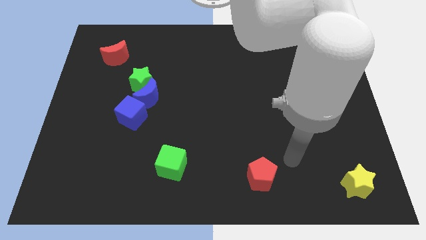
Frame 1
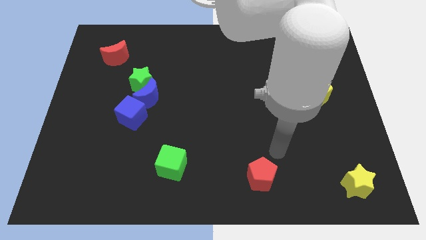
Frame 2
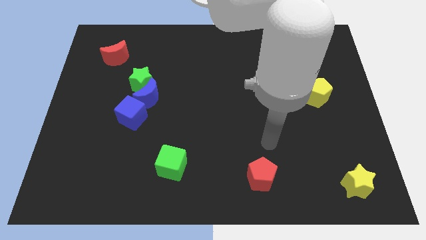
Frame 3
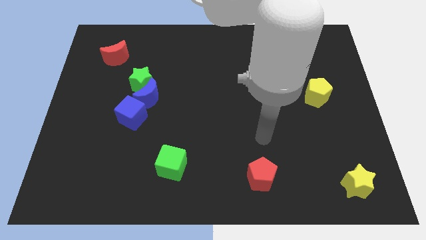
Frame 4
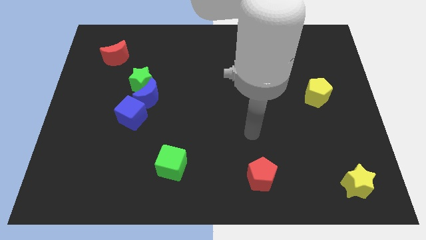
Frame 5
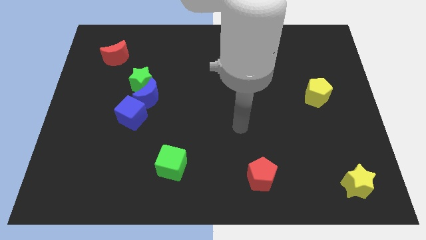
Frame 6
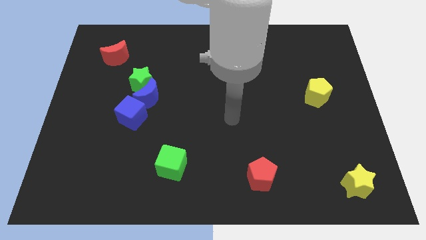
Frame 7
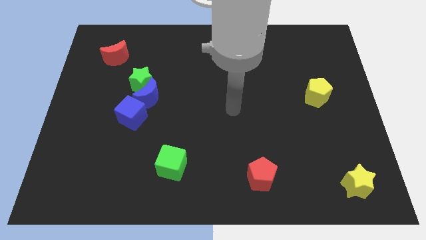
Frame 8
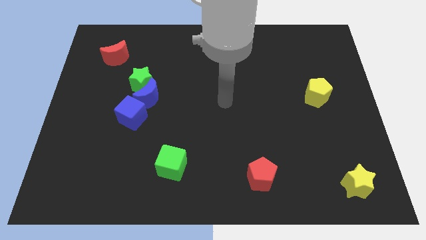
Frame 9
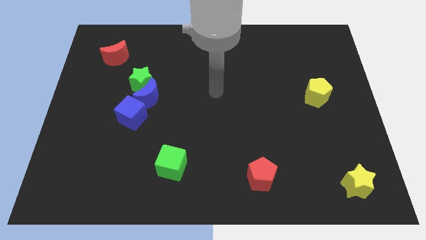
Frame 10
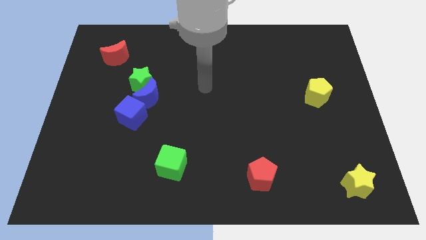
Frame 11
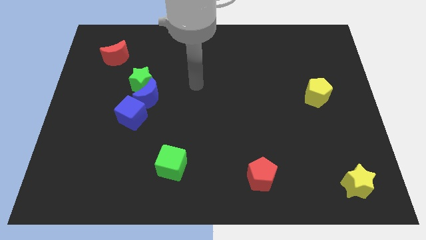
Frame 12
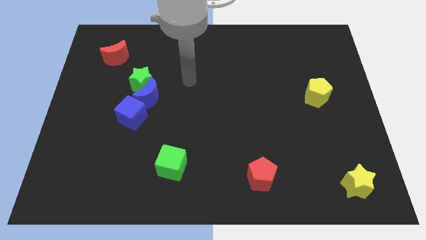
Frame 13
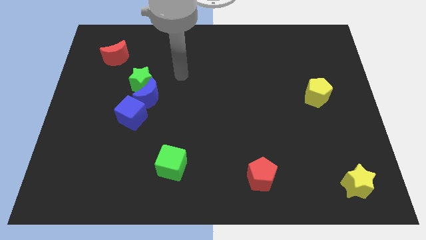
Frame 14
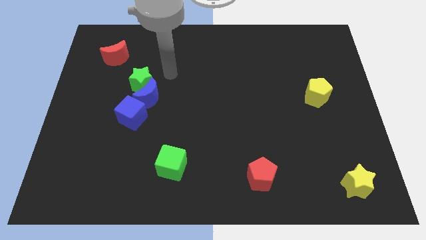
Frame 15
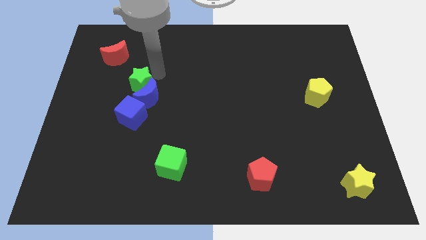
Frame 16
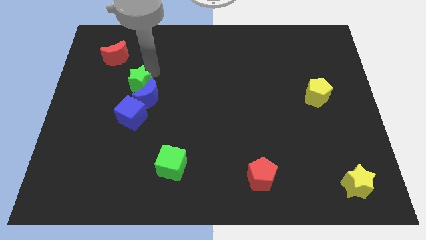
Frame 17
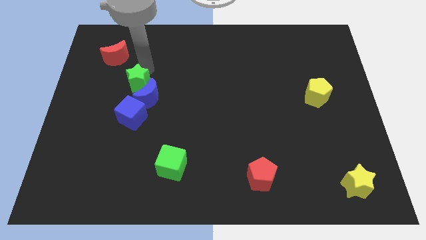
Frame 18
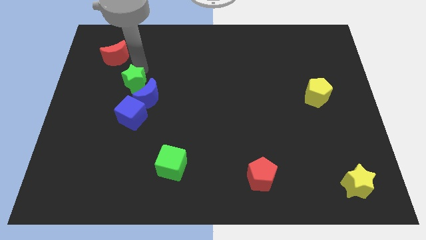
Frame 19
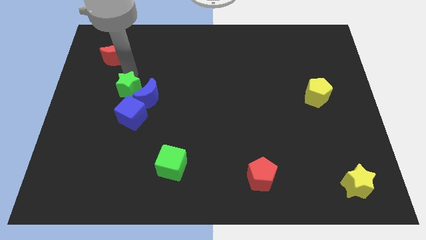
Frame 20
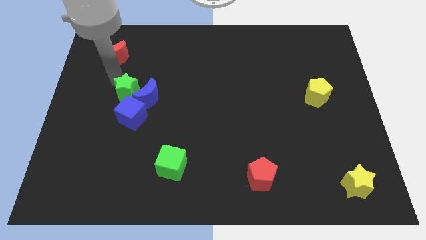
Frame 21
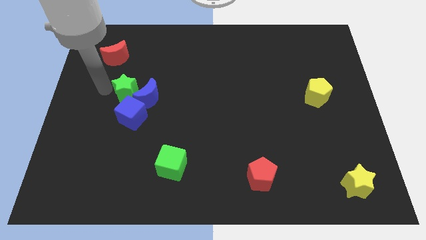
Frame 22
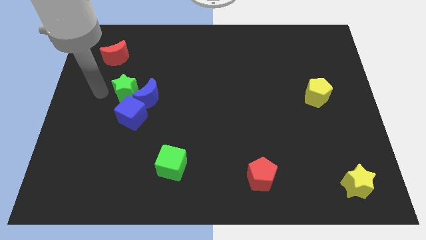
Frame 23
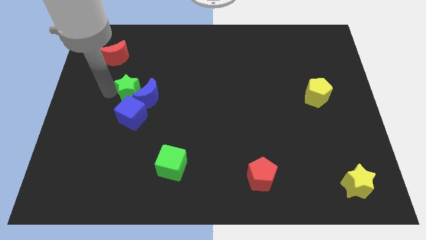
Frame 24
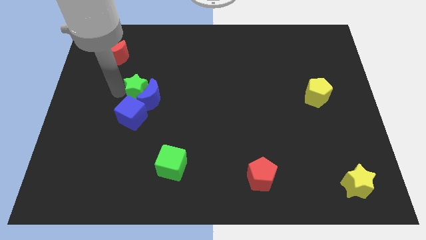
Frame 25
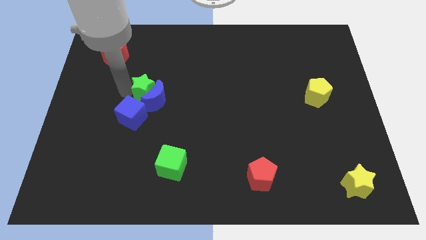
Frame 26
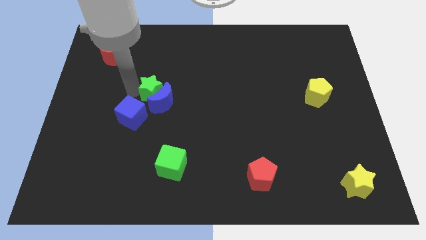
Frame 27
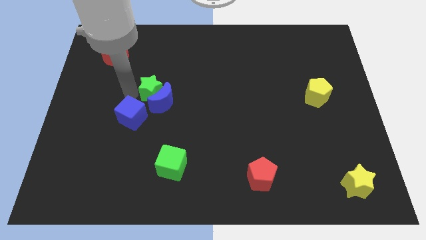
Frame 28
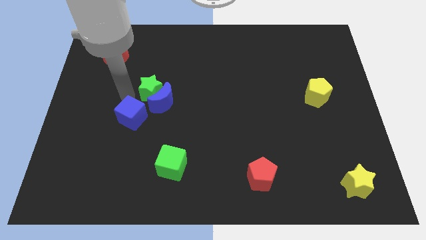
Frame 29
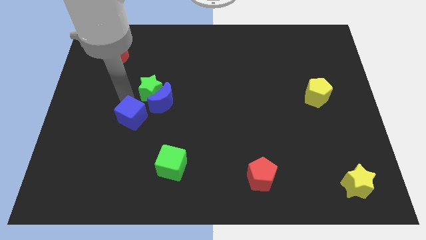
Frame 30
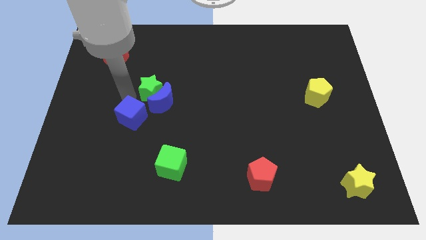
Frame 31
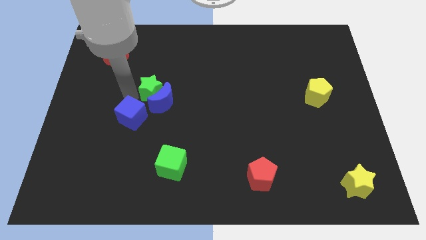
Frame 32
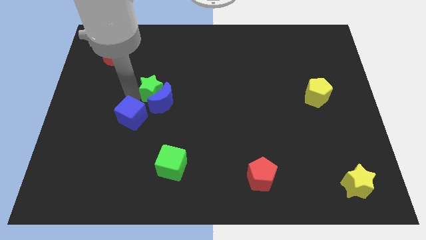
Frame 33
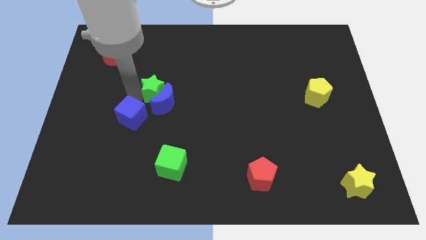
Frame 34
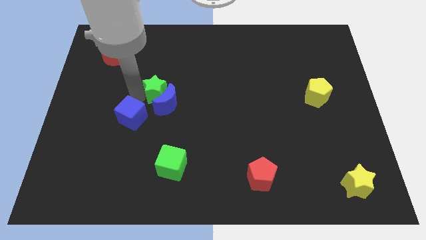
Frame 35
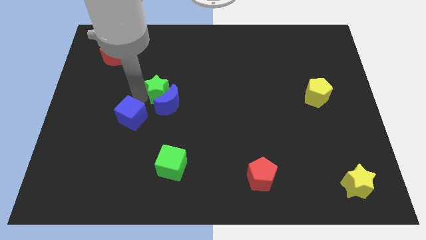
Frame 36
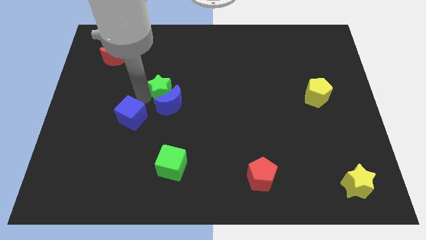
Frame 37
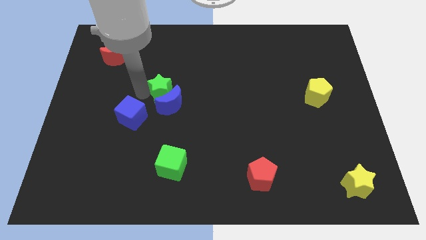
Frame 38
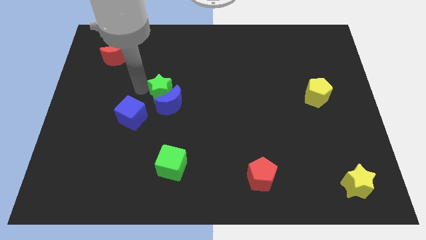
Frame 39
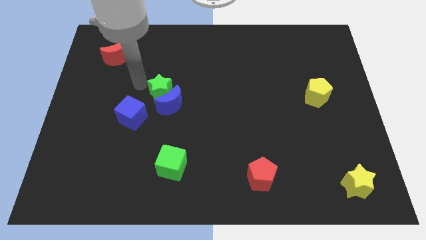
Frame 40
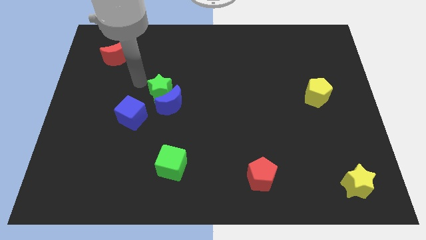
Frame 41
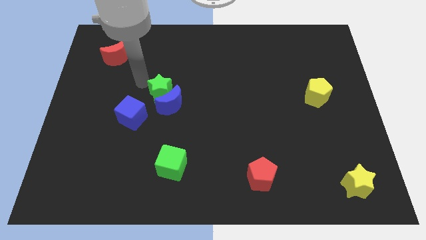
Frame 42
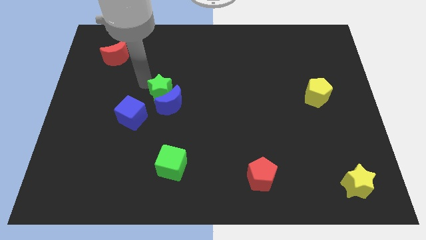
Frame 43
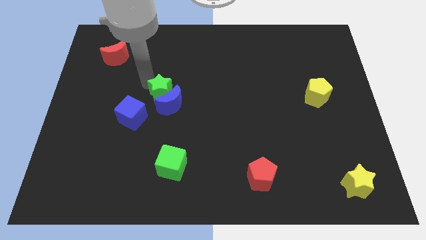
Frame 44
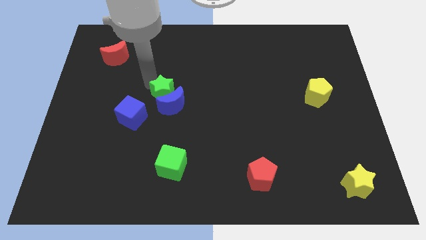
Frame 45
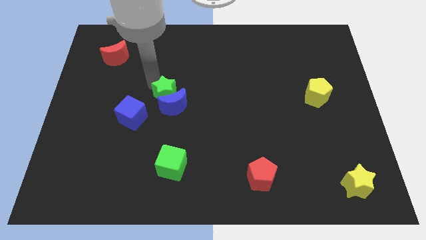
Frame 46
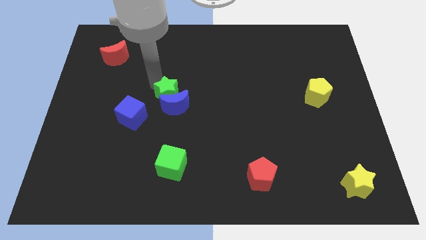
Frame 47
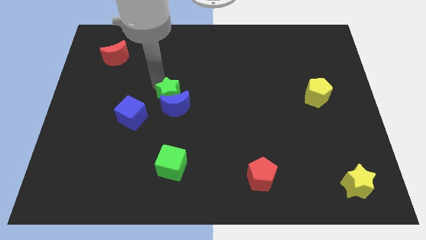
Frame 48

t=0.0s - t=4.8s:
move the green star a little diagonally downwards and to the right

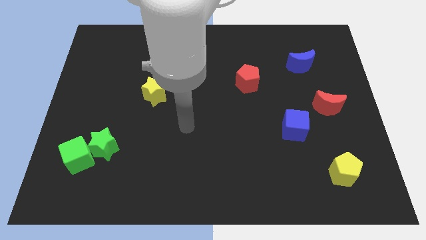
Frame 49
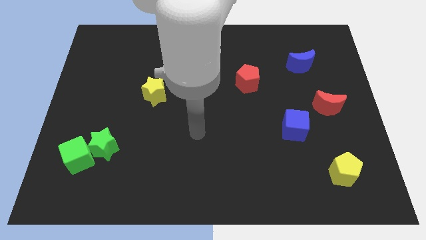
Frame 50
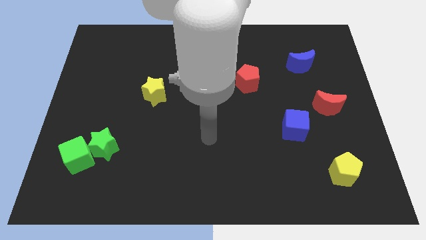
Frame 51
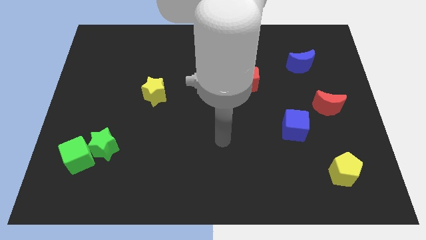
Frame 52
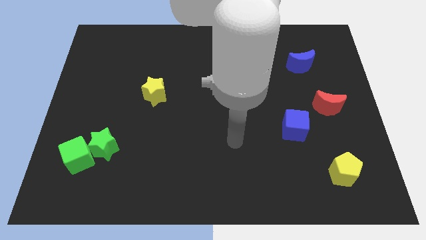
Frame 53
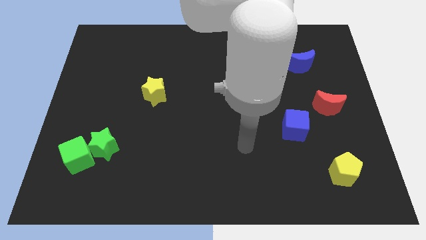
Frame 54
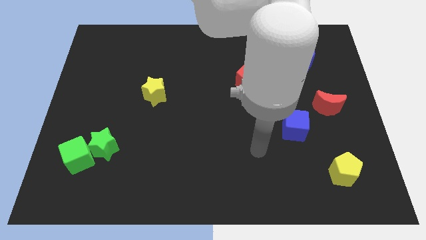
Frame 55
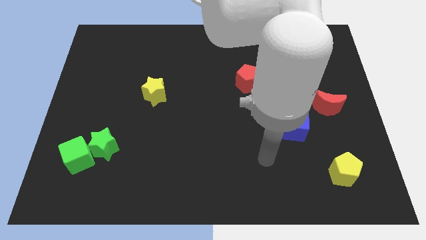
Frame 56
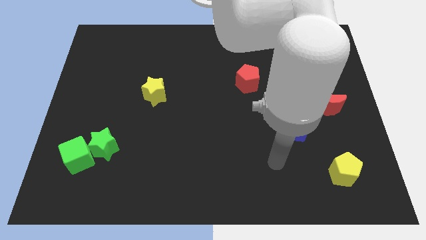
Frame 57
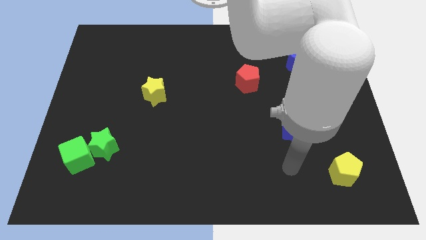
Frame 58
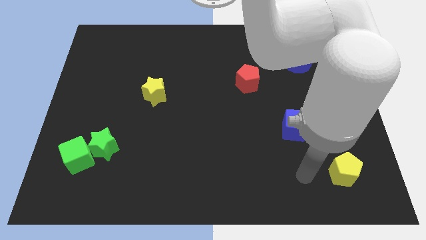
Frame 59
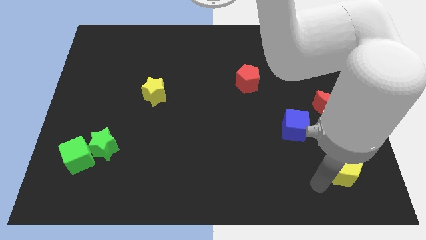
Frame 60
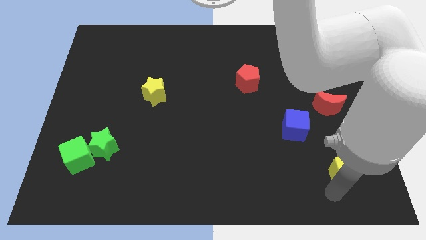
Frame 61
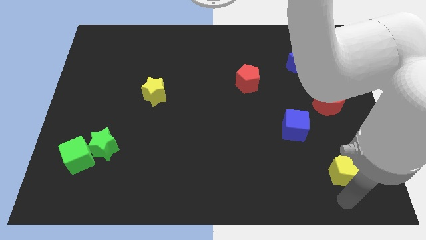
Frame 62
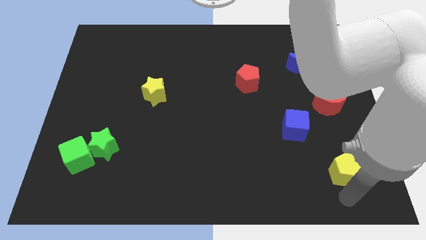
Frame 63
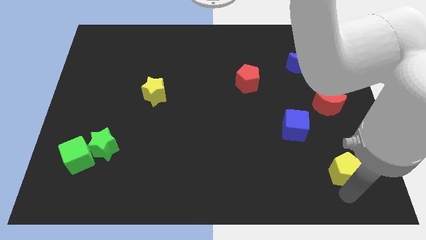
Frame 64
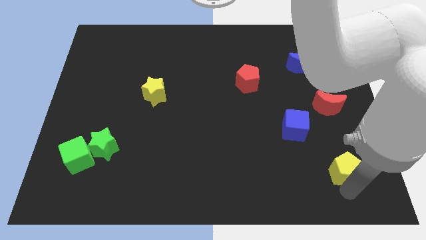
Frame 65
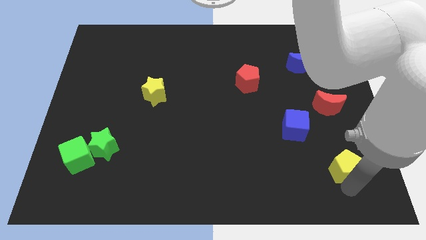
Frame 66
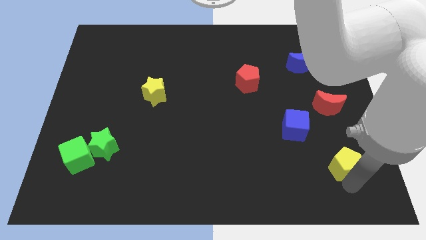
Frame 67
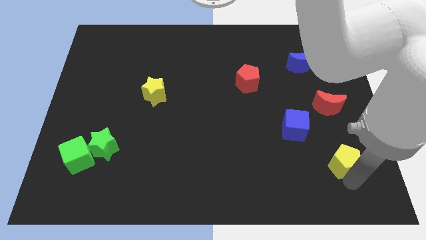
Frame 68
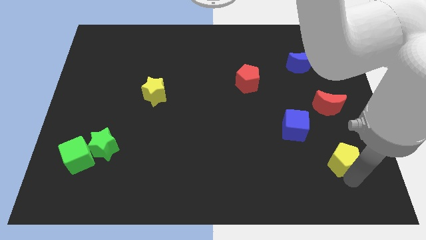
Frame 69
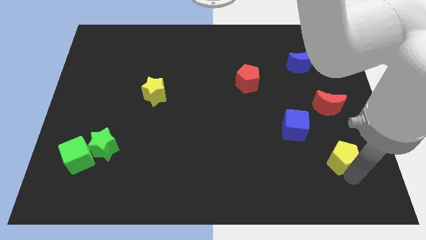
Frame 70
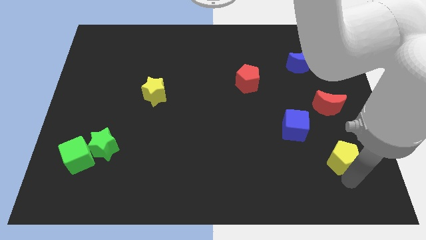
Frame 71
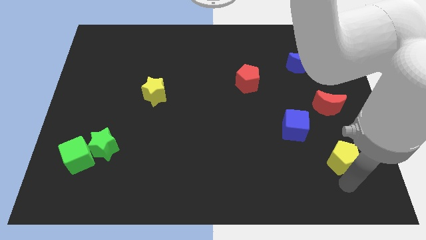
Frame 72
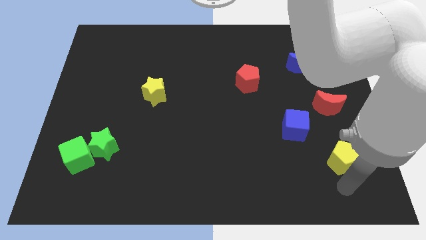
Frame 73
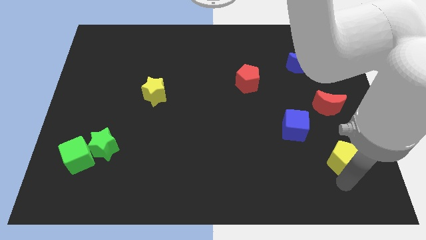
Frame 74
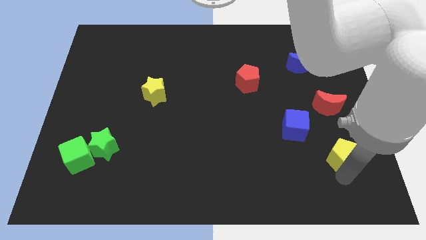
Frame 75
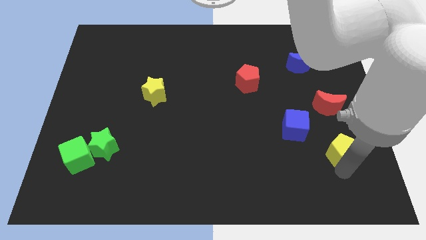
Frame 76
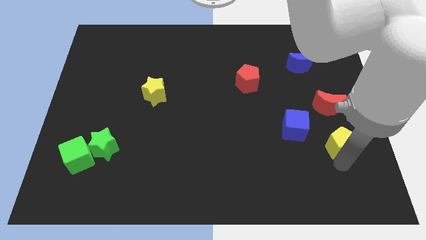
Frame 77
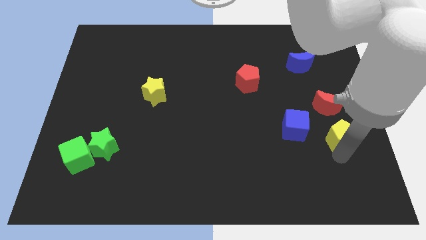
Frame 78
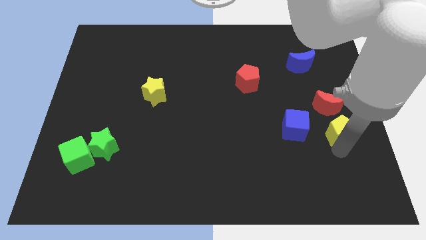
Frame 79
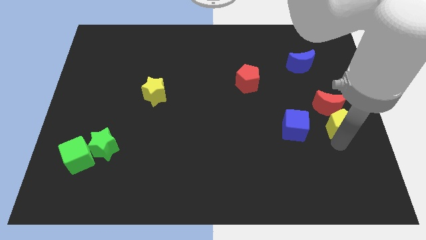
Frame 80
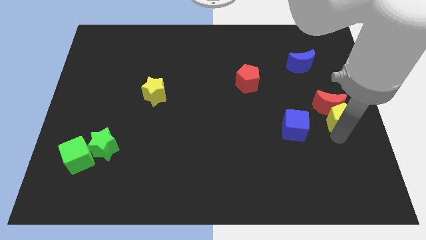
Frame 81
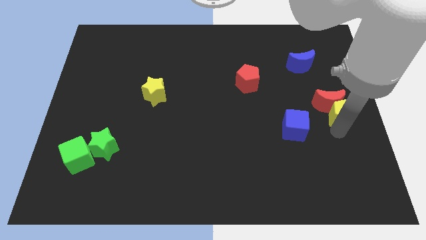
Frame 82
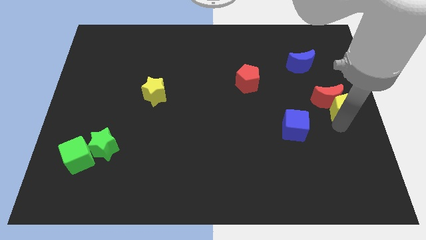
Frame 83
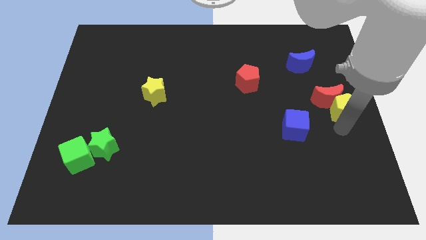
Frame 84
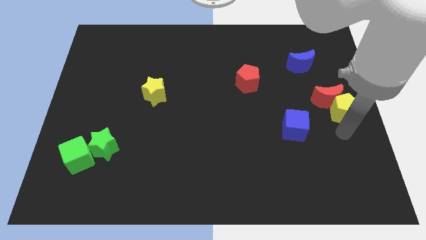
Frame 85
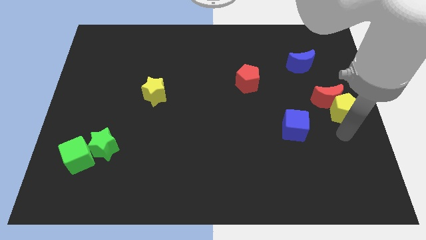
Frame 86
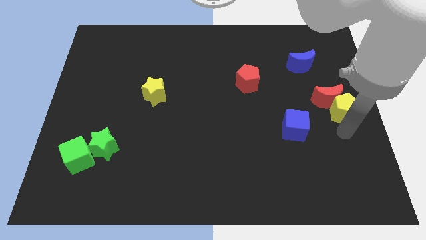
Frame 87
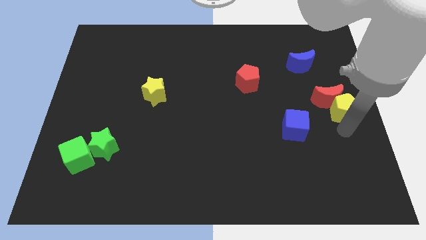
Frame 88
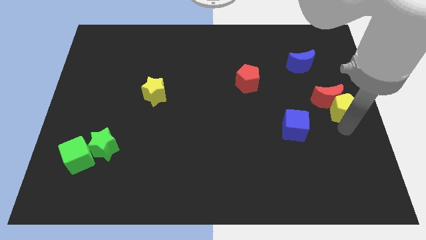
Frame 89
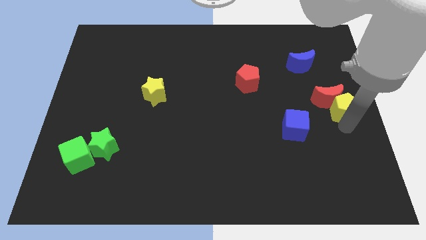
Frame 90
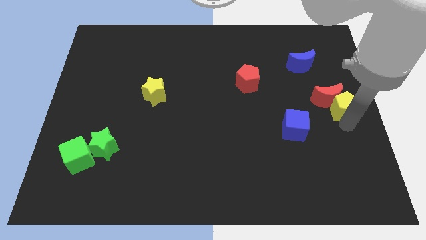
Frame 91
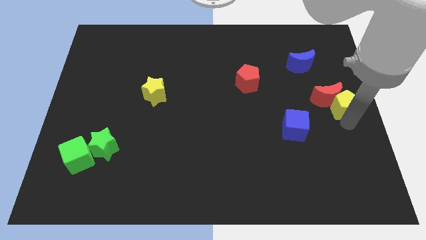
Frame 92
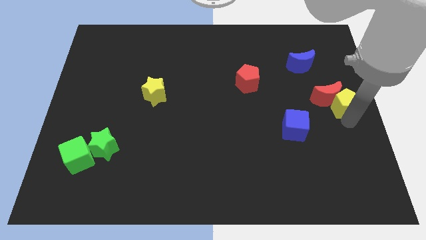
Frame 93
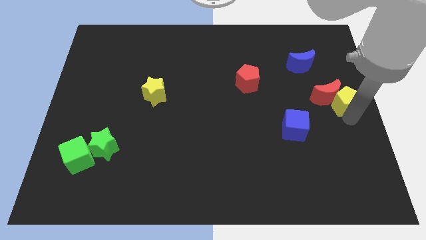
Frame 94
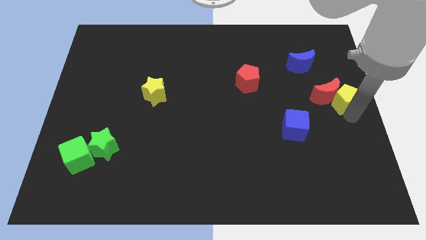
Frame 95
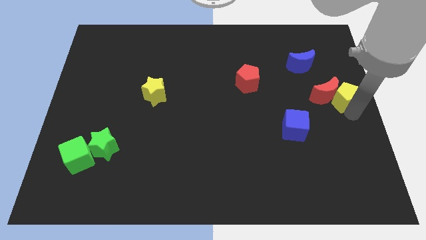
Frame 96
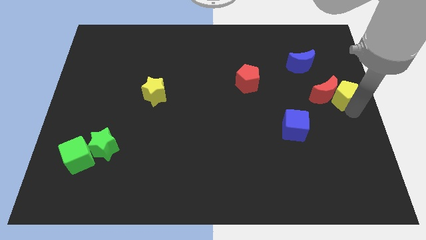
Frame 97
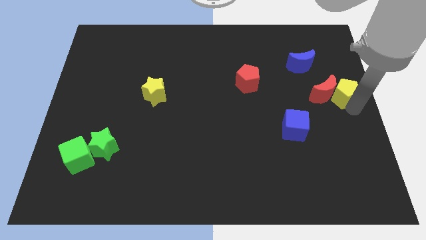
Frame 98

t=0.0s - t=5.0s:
move the yellow pentagon up
